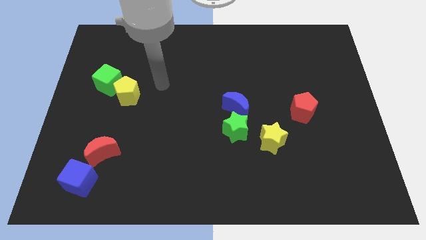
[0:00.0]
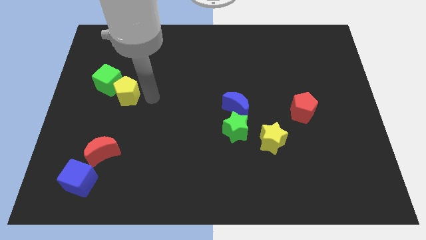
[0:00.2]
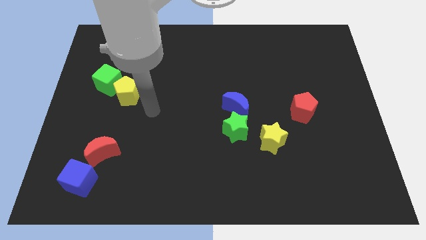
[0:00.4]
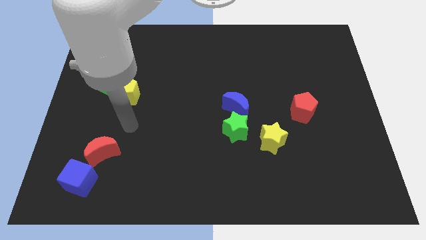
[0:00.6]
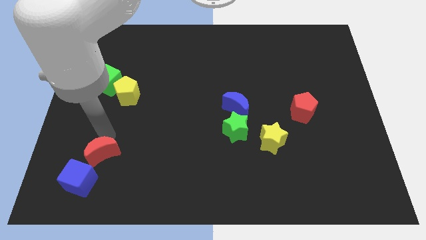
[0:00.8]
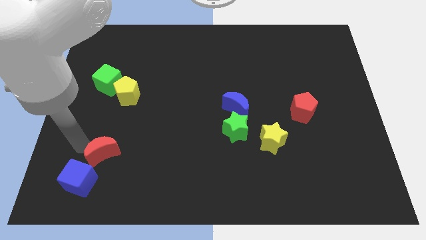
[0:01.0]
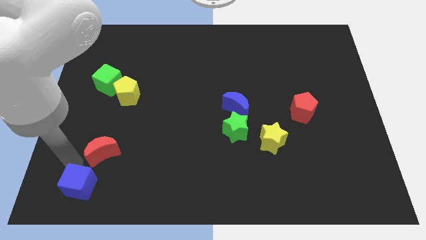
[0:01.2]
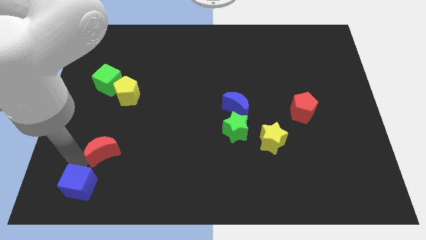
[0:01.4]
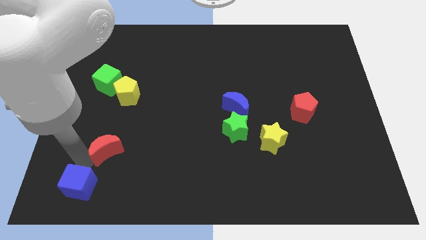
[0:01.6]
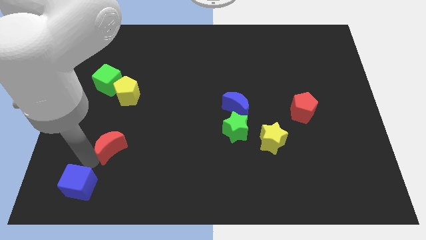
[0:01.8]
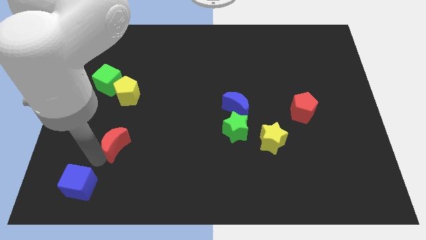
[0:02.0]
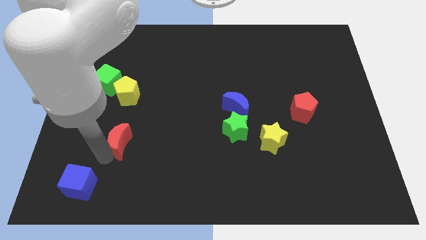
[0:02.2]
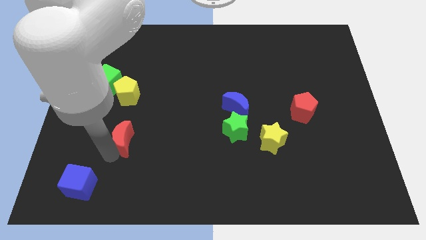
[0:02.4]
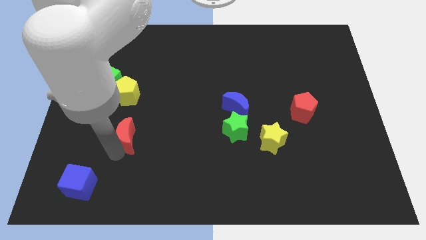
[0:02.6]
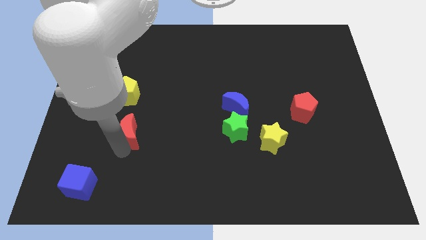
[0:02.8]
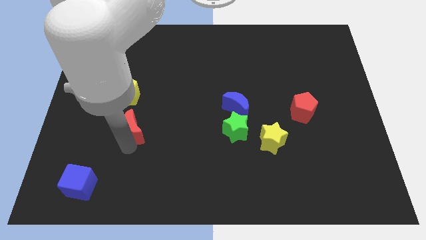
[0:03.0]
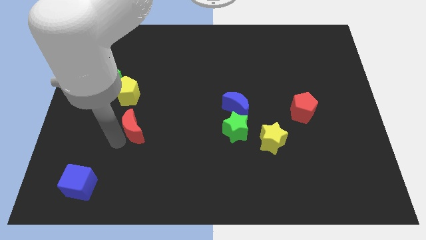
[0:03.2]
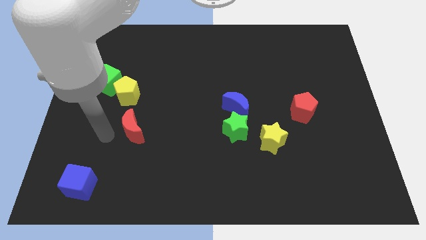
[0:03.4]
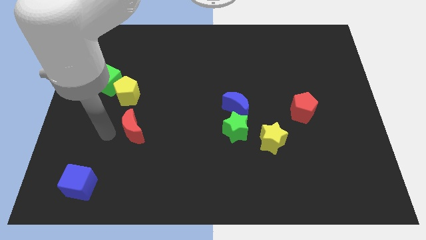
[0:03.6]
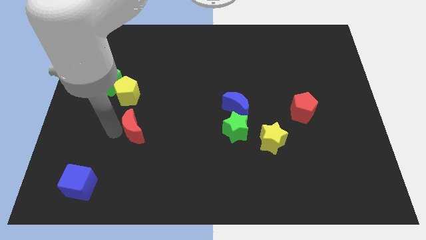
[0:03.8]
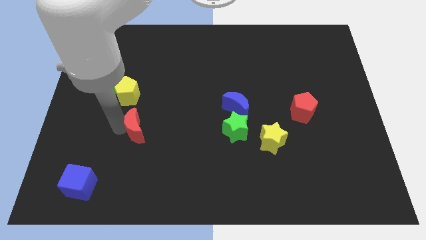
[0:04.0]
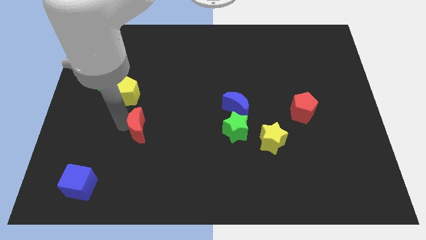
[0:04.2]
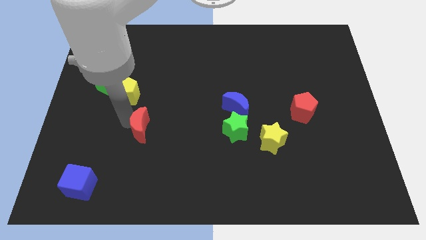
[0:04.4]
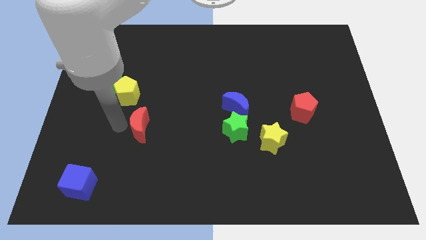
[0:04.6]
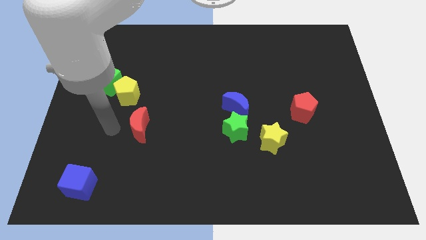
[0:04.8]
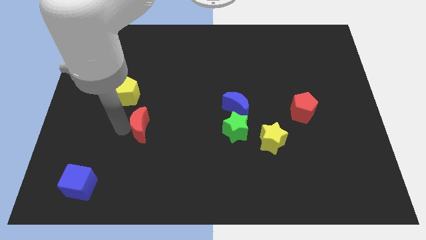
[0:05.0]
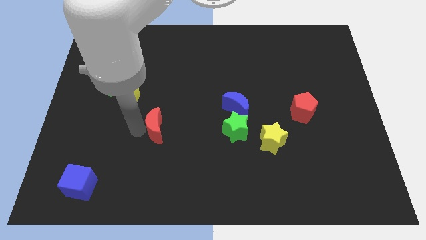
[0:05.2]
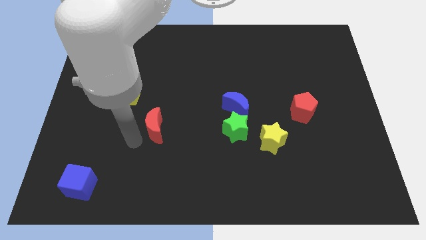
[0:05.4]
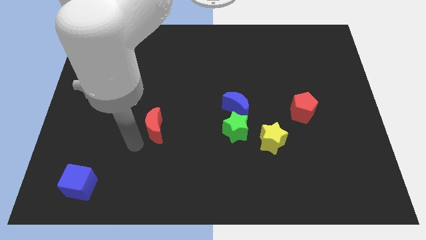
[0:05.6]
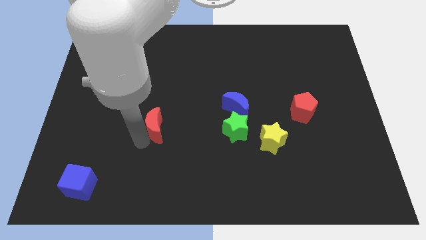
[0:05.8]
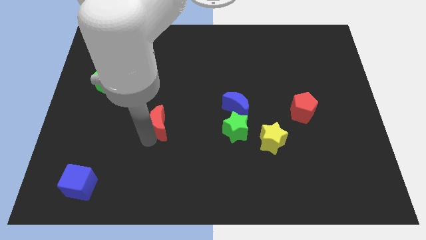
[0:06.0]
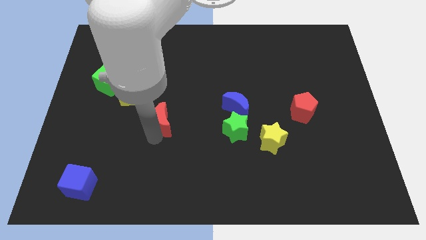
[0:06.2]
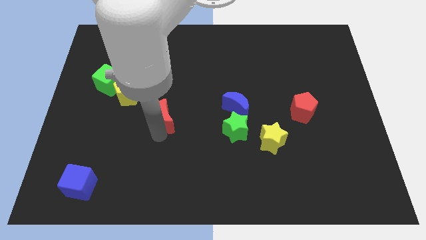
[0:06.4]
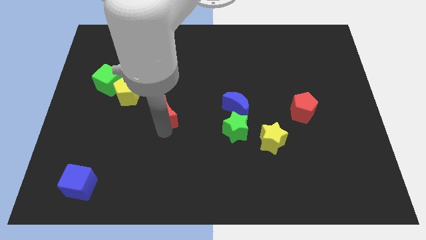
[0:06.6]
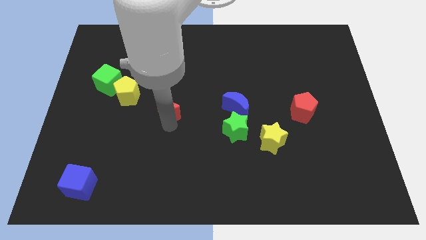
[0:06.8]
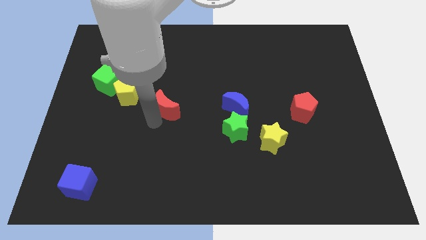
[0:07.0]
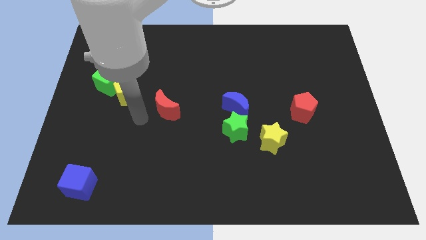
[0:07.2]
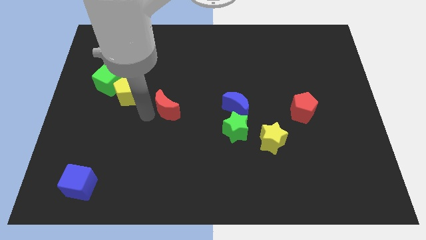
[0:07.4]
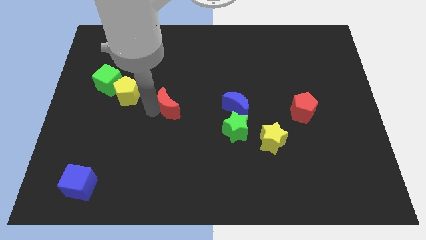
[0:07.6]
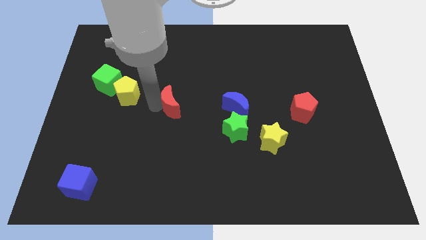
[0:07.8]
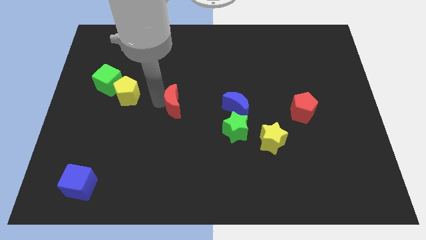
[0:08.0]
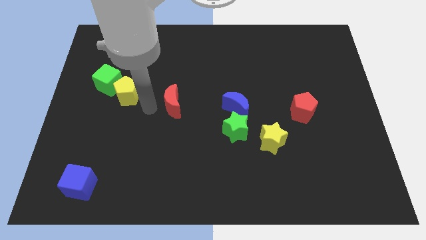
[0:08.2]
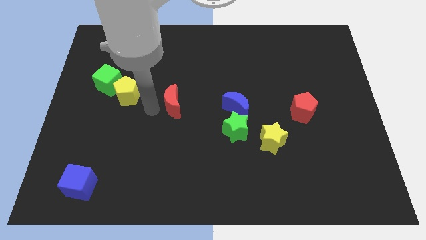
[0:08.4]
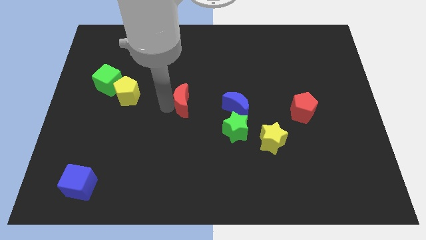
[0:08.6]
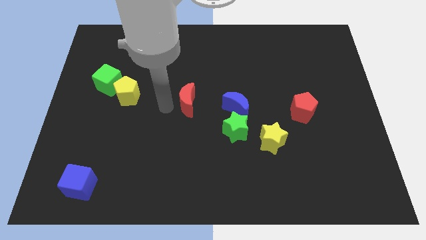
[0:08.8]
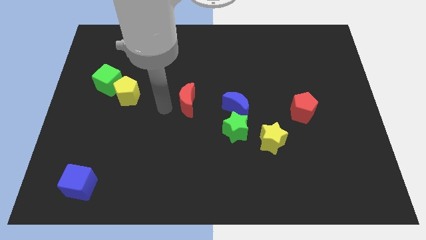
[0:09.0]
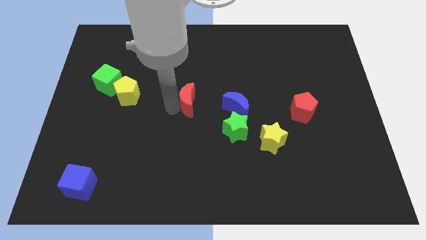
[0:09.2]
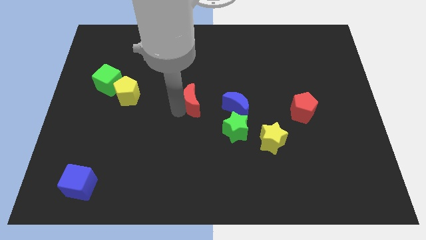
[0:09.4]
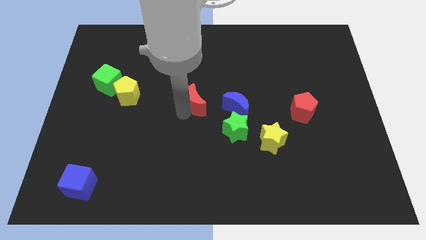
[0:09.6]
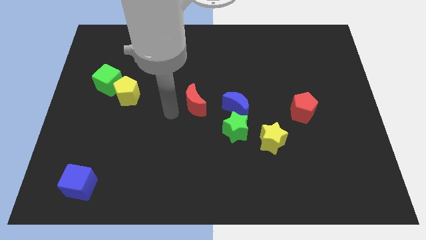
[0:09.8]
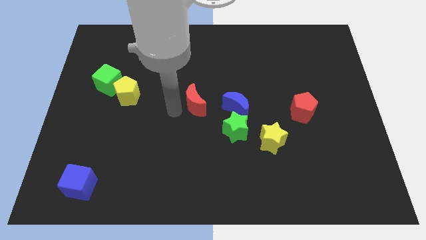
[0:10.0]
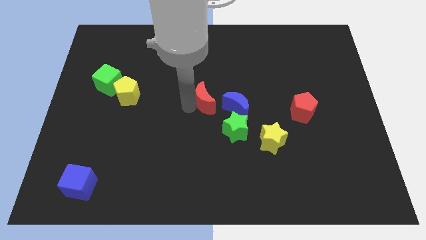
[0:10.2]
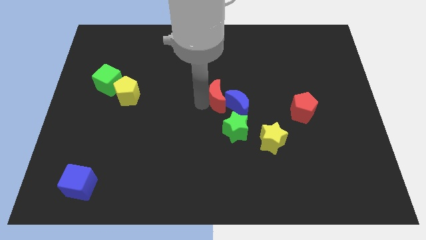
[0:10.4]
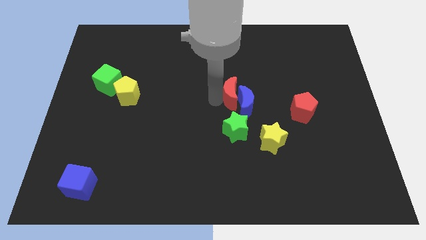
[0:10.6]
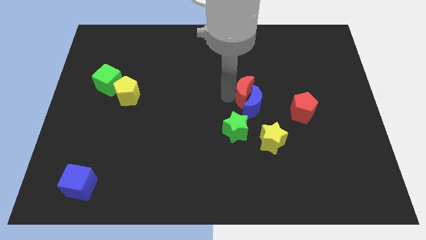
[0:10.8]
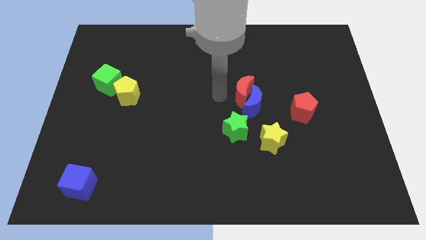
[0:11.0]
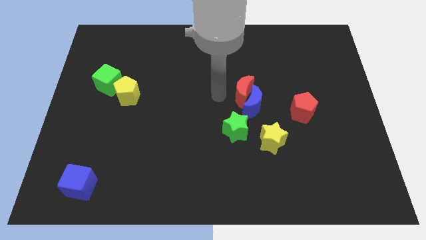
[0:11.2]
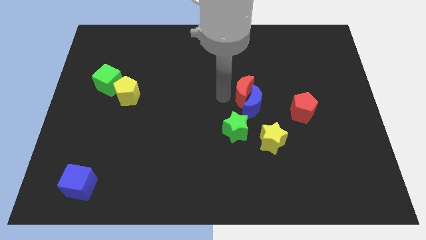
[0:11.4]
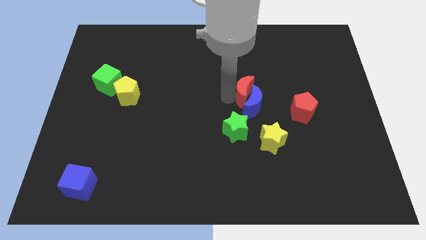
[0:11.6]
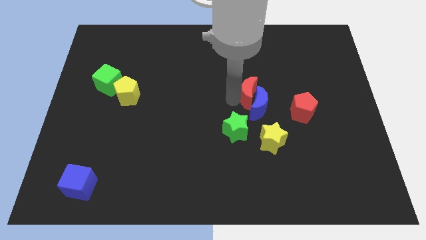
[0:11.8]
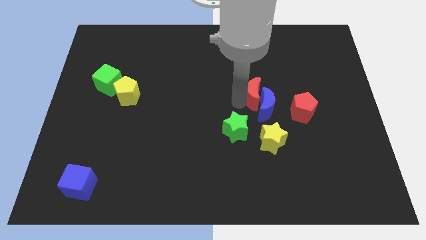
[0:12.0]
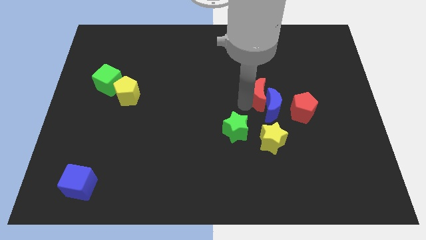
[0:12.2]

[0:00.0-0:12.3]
push the red moon diagonally up and to the left of the red pentagon

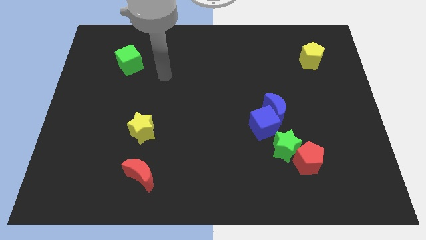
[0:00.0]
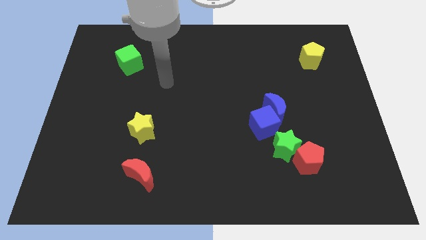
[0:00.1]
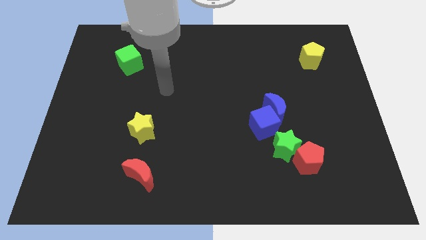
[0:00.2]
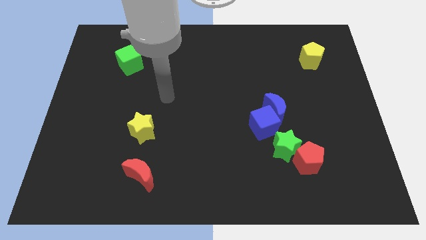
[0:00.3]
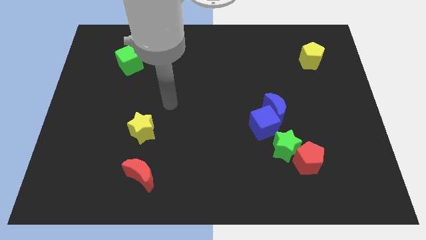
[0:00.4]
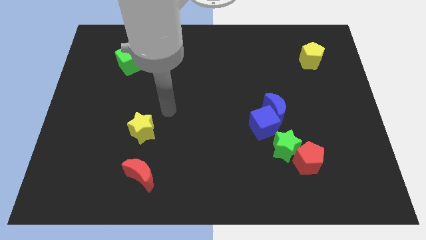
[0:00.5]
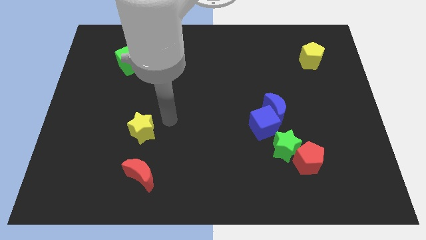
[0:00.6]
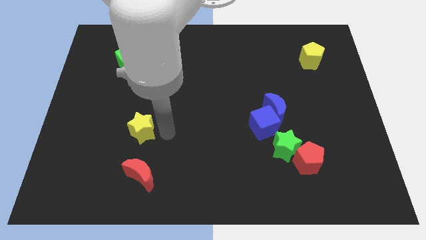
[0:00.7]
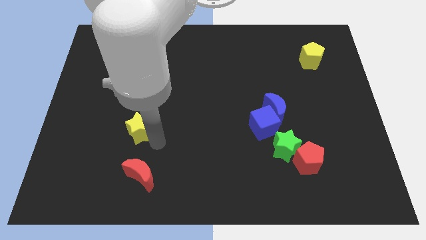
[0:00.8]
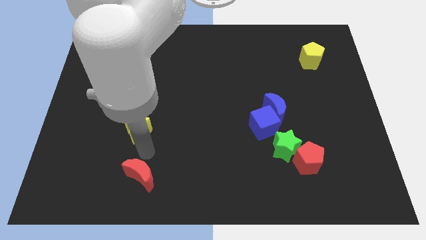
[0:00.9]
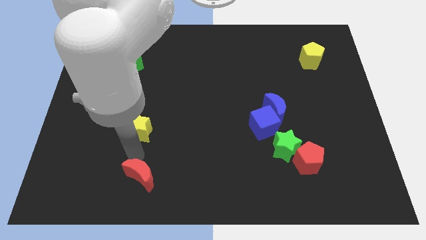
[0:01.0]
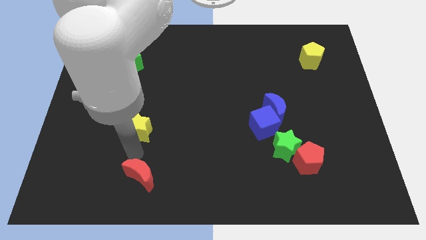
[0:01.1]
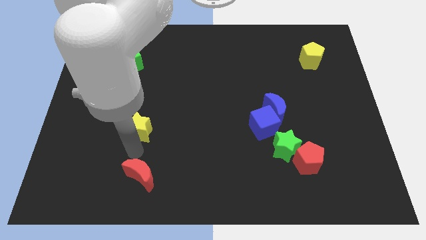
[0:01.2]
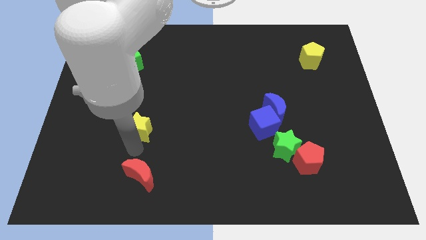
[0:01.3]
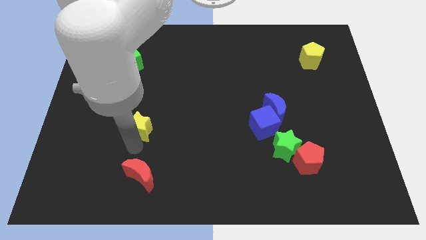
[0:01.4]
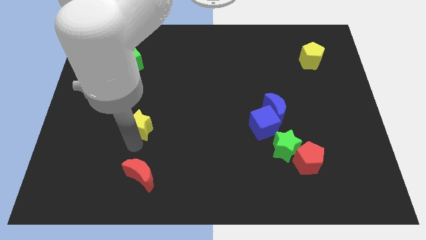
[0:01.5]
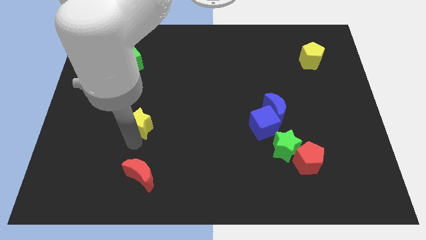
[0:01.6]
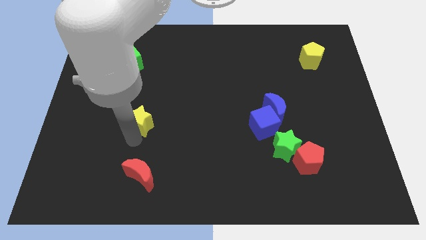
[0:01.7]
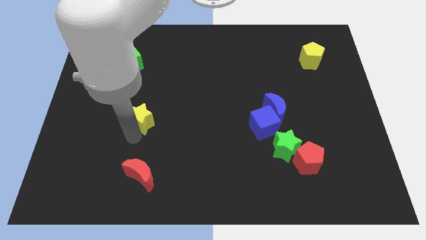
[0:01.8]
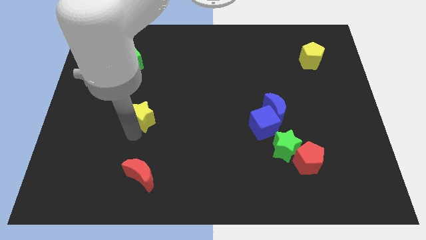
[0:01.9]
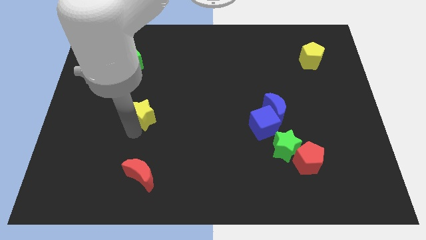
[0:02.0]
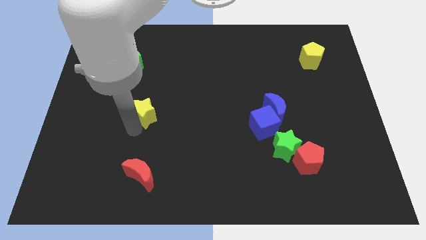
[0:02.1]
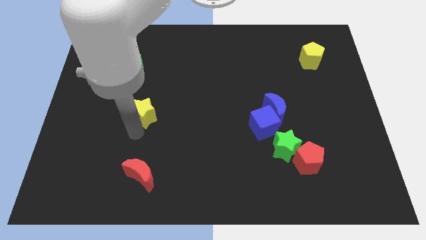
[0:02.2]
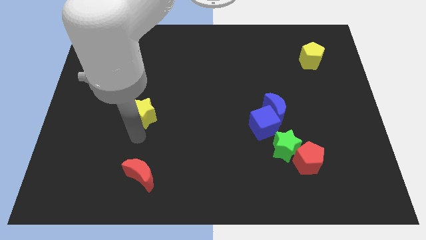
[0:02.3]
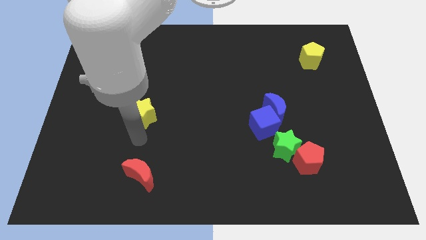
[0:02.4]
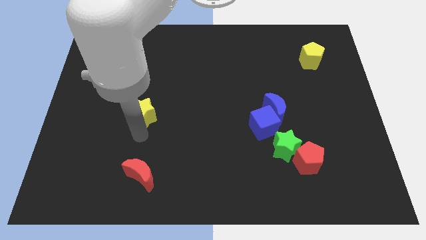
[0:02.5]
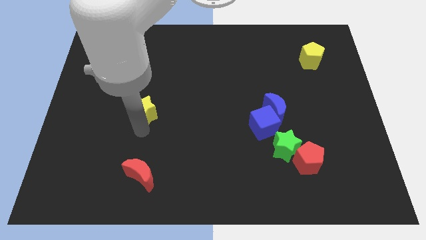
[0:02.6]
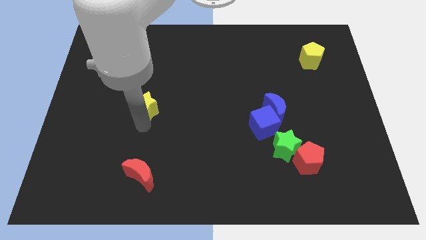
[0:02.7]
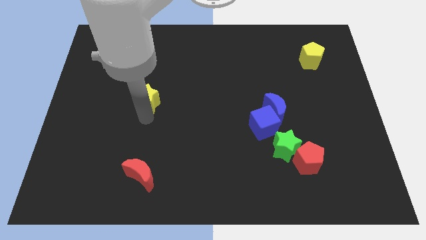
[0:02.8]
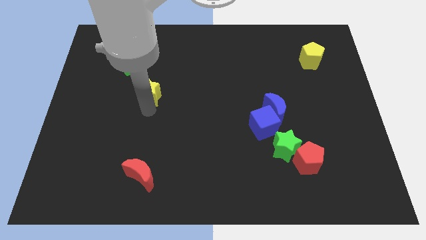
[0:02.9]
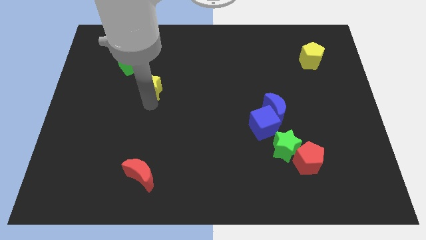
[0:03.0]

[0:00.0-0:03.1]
move the yellow star to the bottom right side of the green cube
